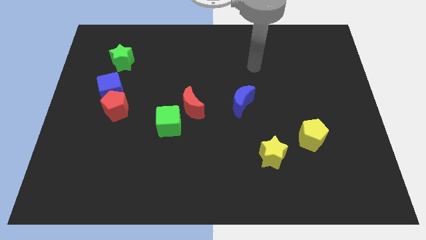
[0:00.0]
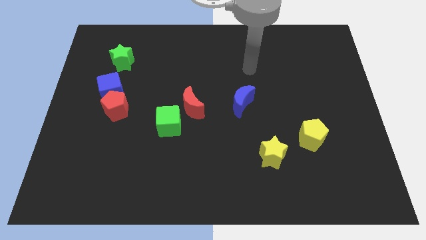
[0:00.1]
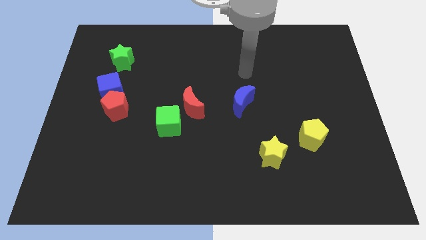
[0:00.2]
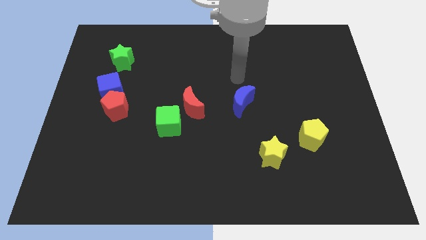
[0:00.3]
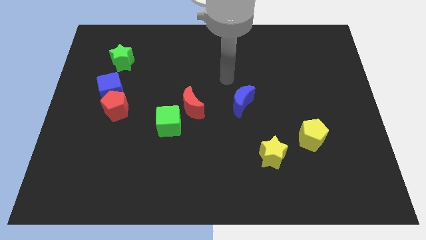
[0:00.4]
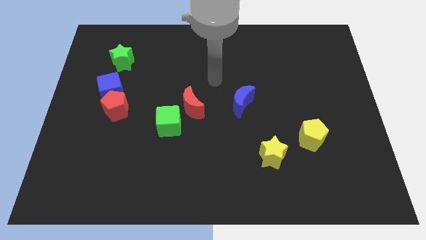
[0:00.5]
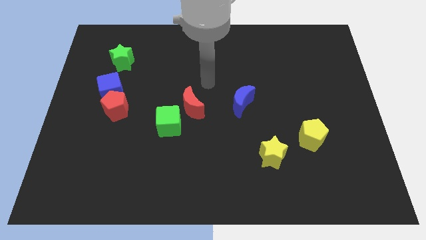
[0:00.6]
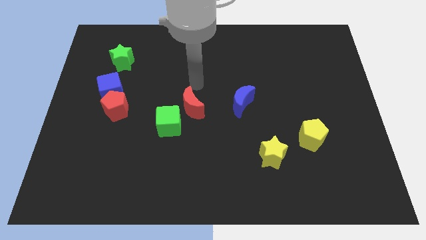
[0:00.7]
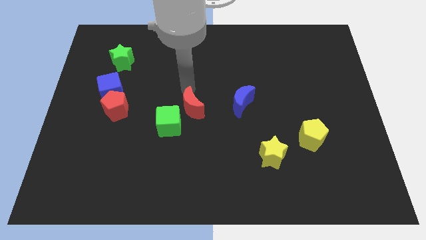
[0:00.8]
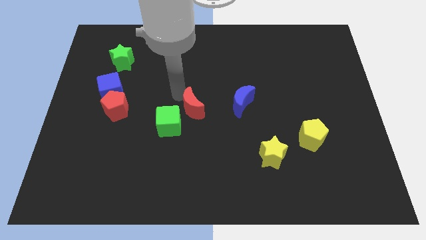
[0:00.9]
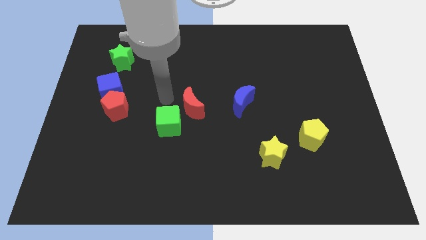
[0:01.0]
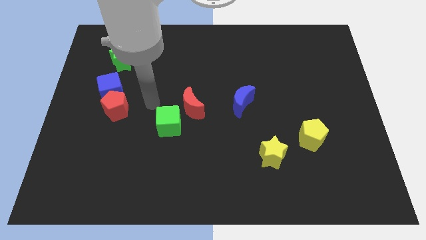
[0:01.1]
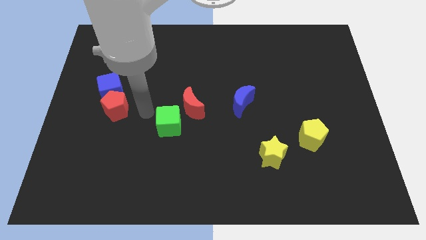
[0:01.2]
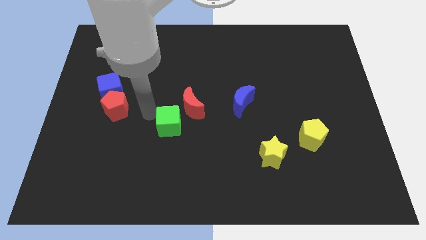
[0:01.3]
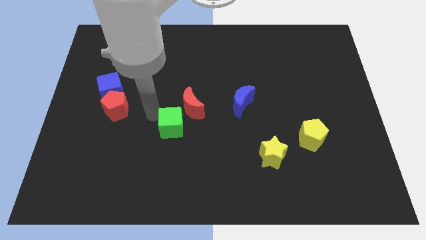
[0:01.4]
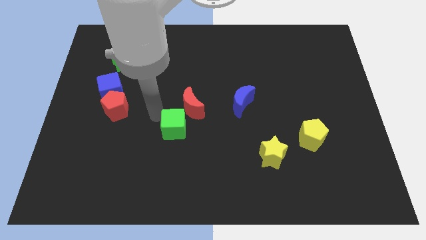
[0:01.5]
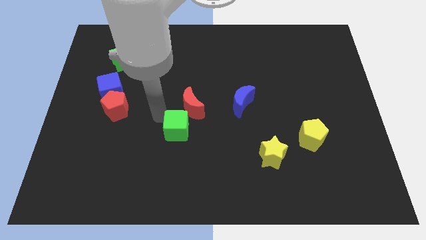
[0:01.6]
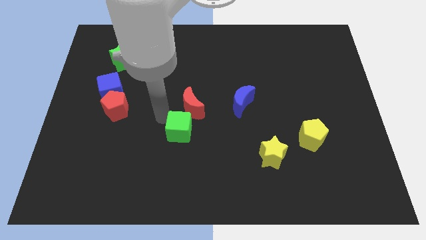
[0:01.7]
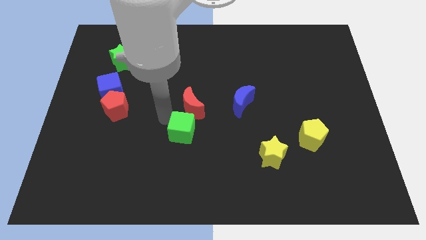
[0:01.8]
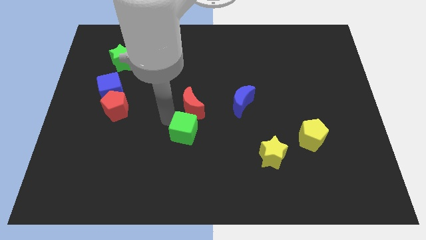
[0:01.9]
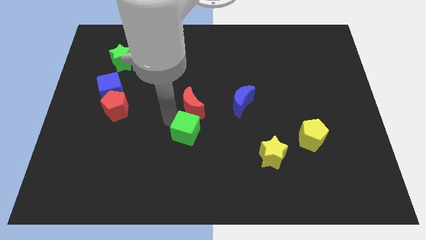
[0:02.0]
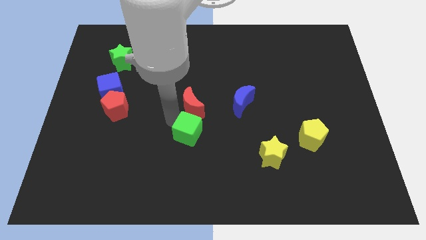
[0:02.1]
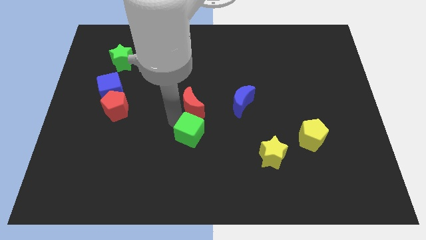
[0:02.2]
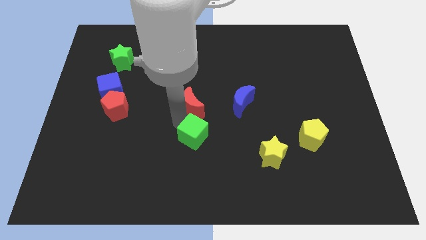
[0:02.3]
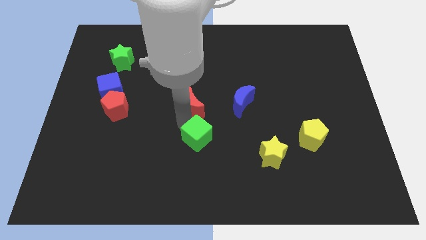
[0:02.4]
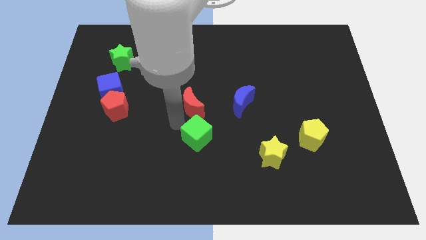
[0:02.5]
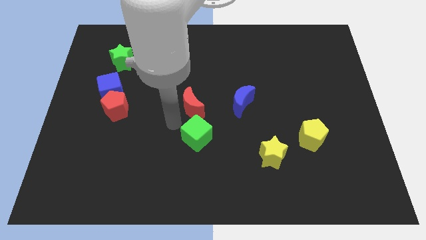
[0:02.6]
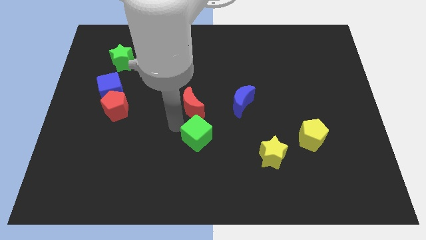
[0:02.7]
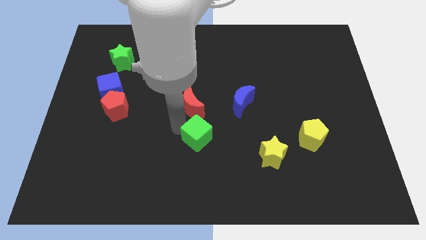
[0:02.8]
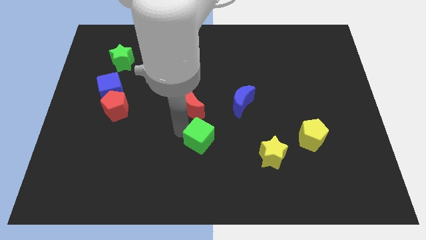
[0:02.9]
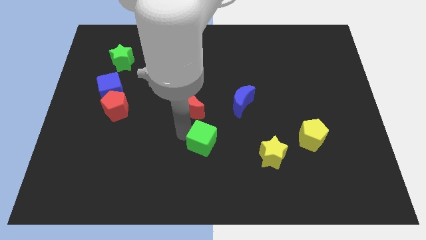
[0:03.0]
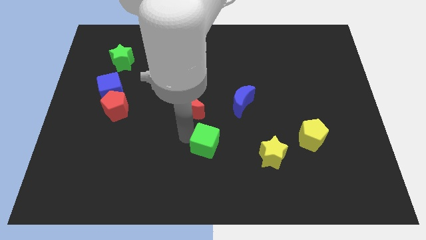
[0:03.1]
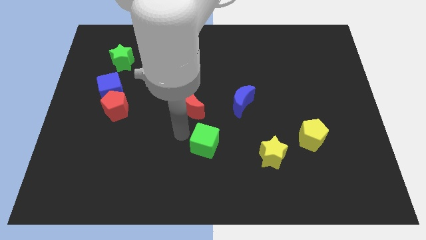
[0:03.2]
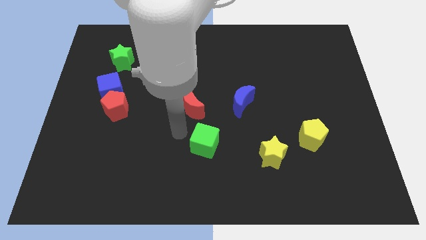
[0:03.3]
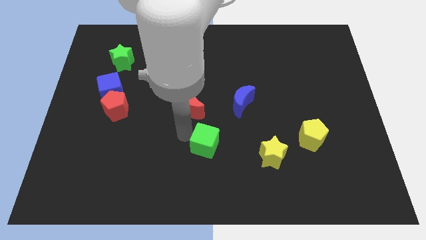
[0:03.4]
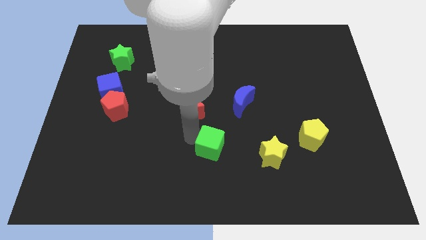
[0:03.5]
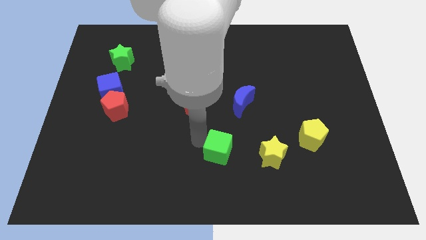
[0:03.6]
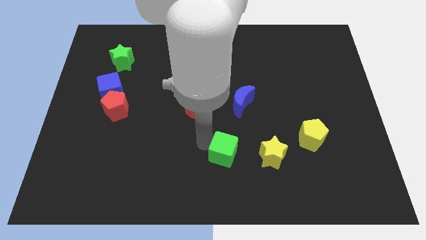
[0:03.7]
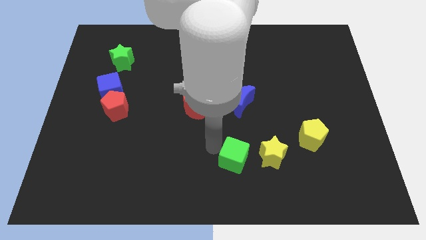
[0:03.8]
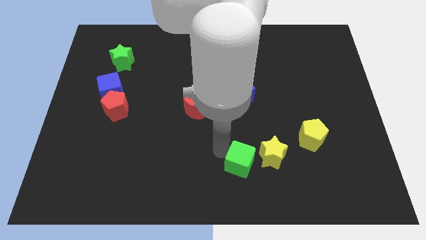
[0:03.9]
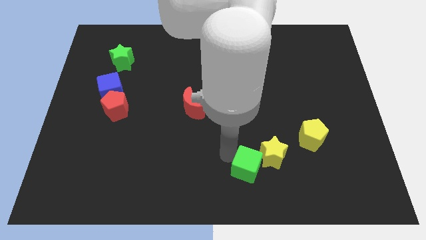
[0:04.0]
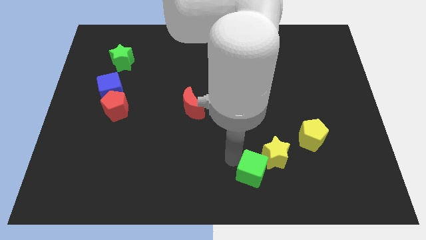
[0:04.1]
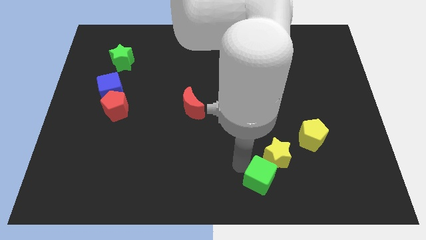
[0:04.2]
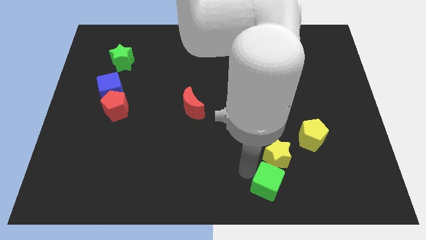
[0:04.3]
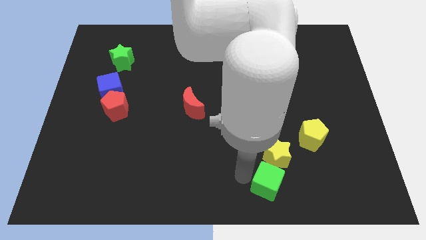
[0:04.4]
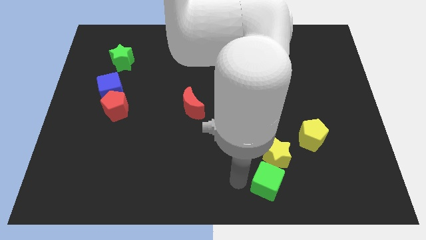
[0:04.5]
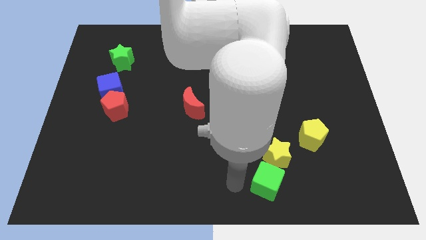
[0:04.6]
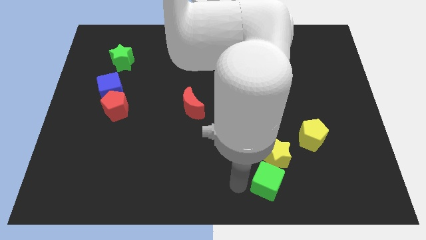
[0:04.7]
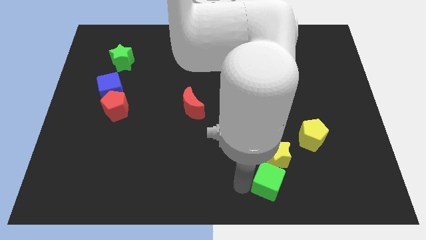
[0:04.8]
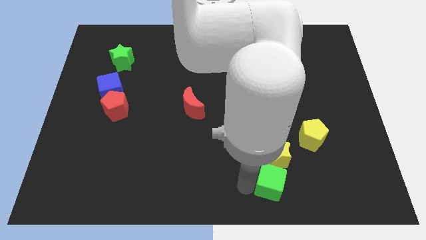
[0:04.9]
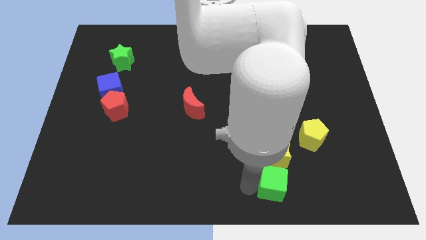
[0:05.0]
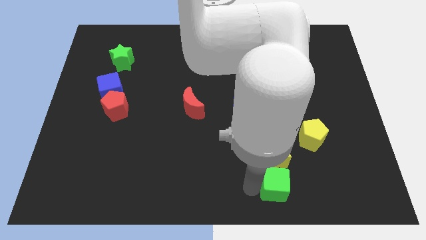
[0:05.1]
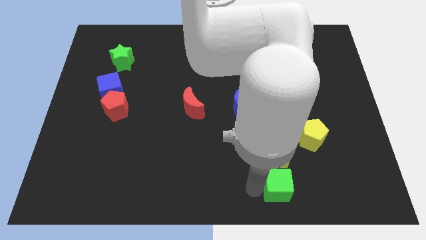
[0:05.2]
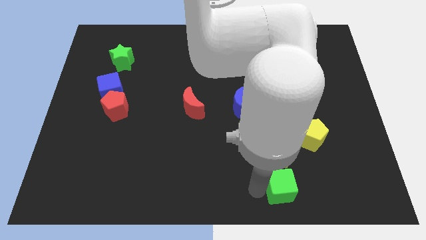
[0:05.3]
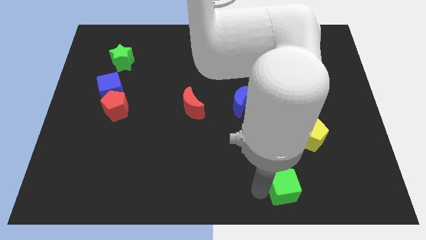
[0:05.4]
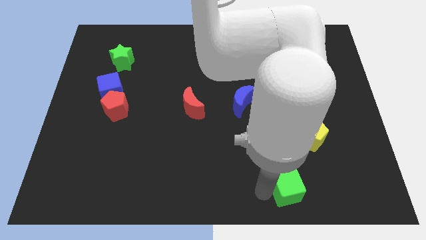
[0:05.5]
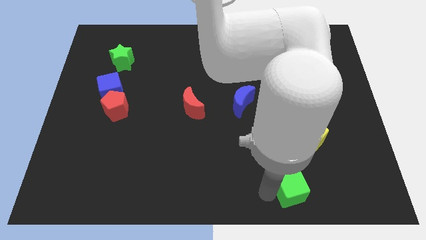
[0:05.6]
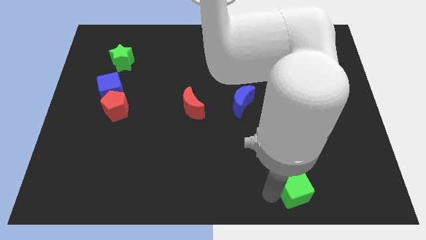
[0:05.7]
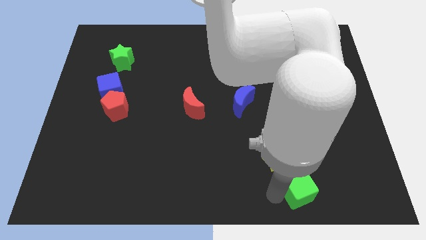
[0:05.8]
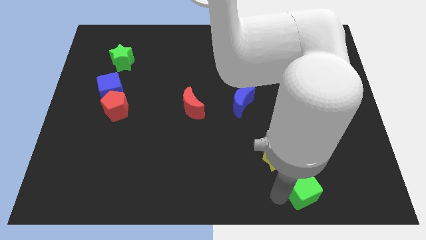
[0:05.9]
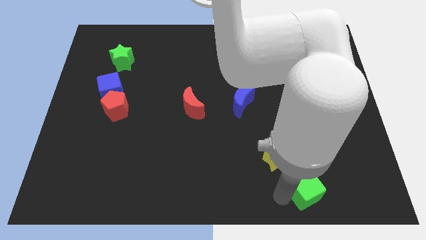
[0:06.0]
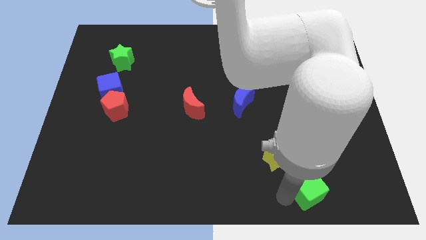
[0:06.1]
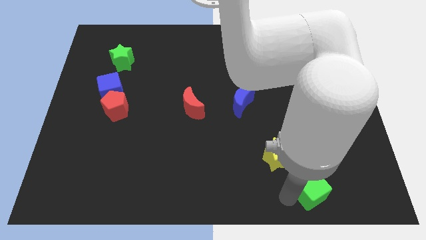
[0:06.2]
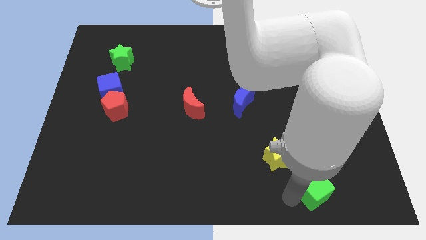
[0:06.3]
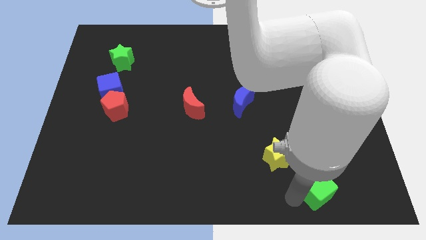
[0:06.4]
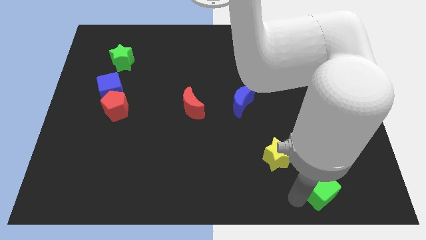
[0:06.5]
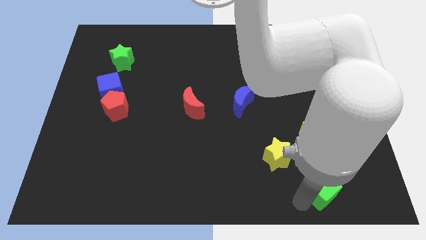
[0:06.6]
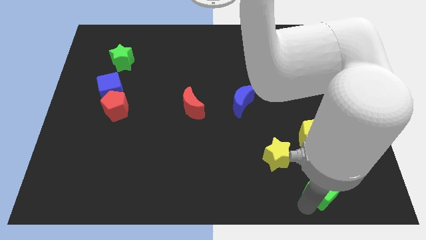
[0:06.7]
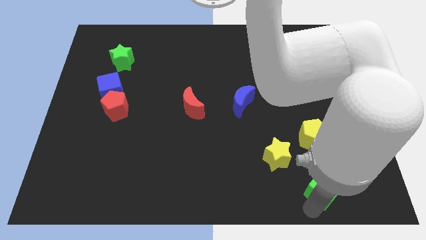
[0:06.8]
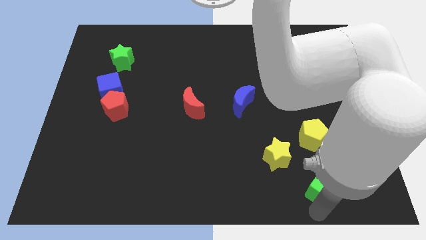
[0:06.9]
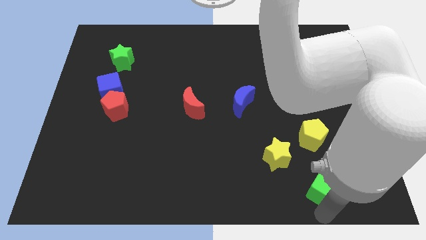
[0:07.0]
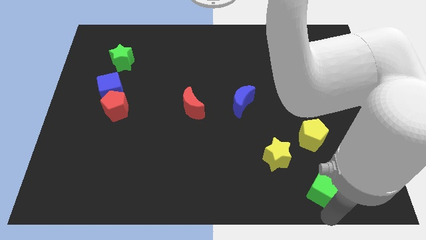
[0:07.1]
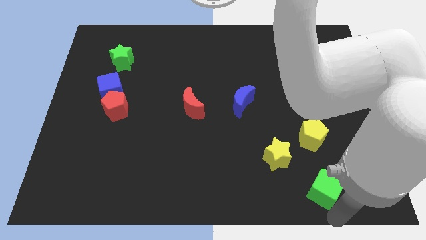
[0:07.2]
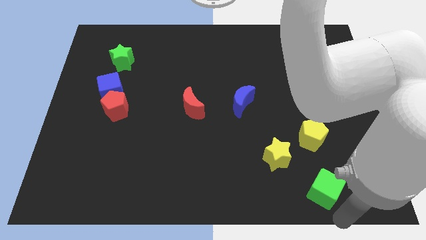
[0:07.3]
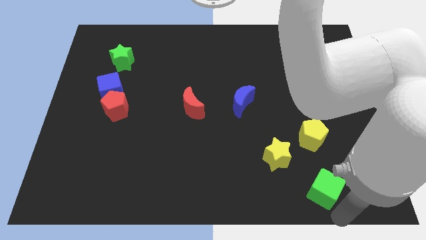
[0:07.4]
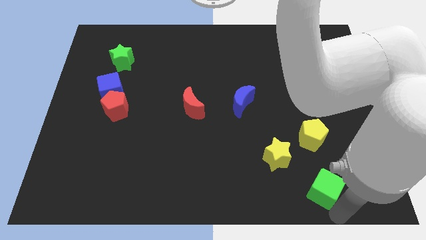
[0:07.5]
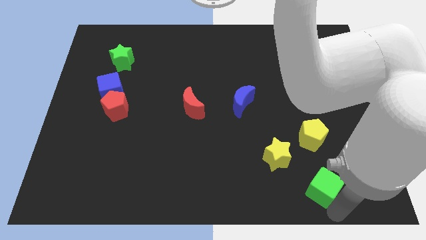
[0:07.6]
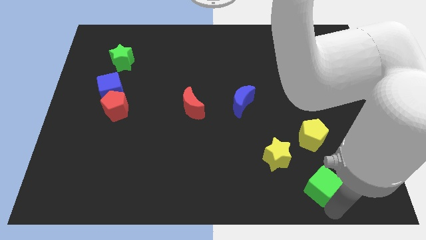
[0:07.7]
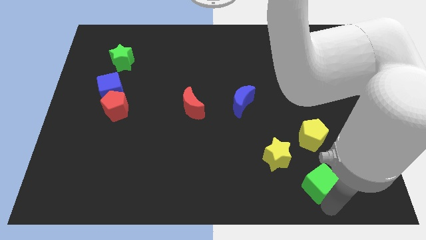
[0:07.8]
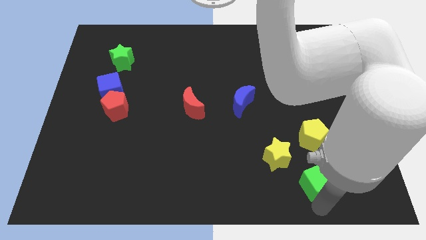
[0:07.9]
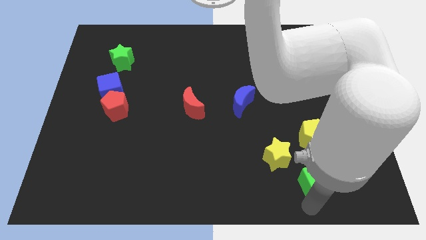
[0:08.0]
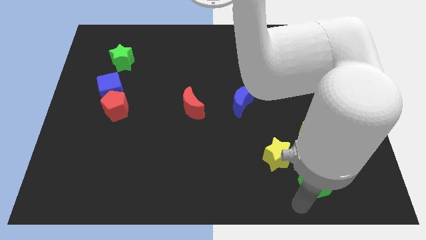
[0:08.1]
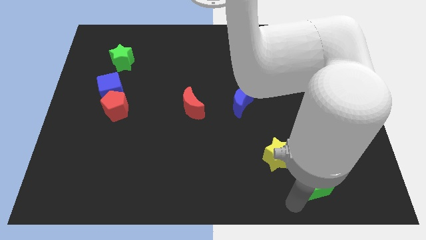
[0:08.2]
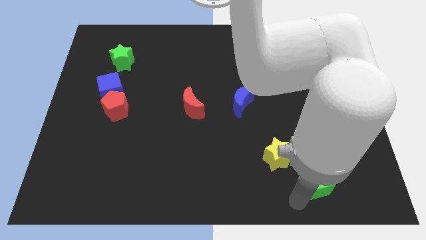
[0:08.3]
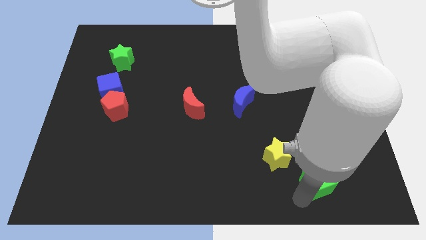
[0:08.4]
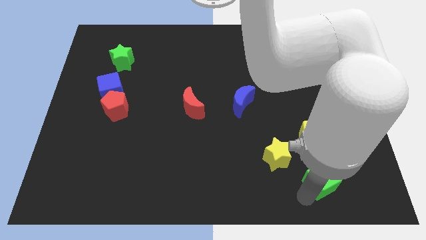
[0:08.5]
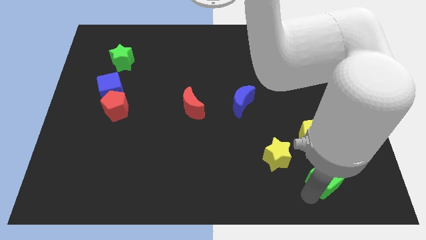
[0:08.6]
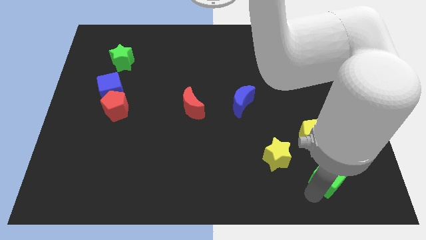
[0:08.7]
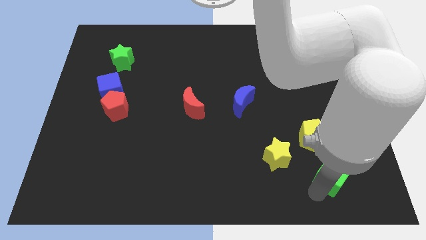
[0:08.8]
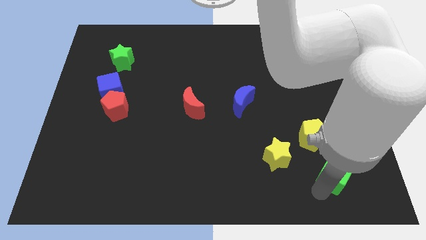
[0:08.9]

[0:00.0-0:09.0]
slide the green cube to the bottom right of the yellow pentagon
